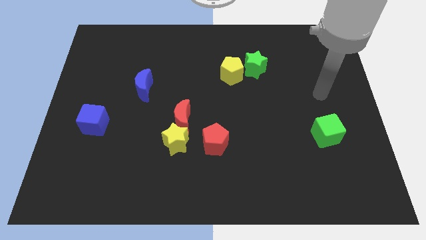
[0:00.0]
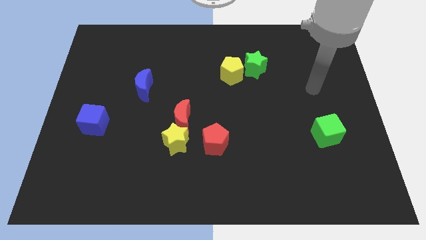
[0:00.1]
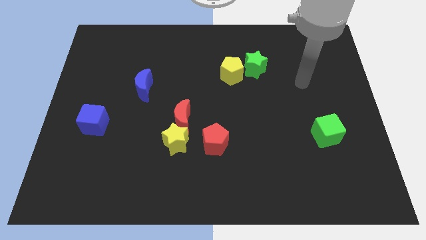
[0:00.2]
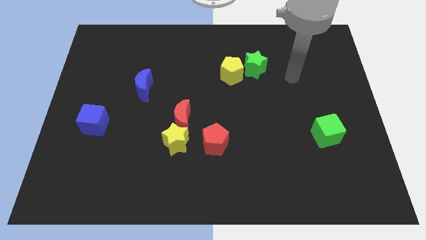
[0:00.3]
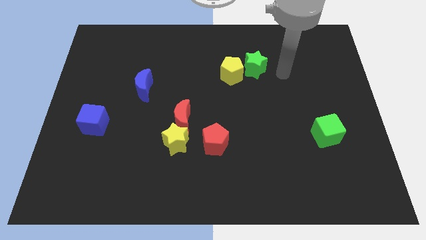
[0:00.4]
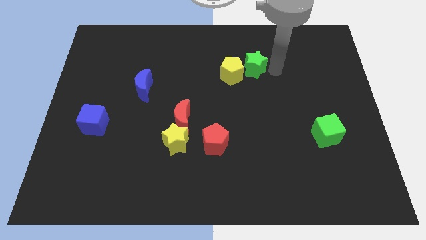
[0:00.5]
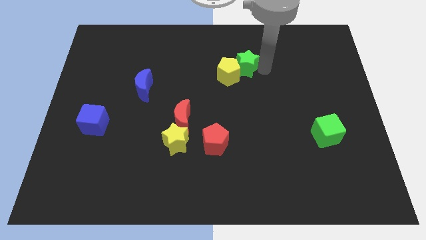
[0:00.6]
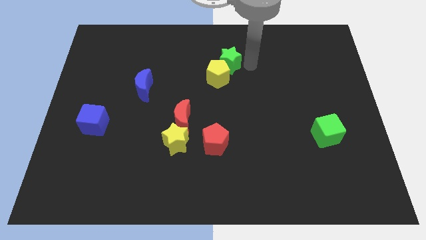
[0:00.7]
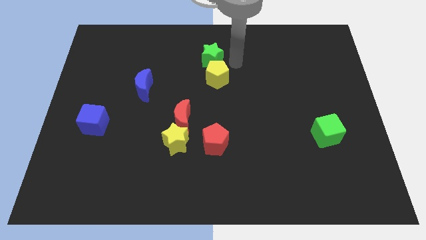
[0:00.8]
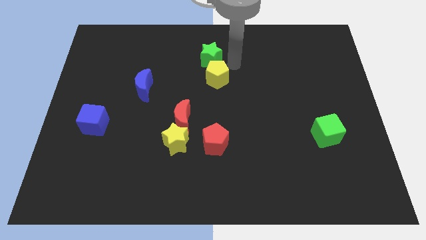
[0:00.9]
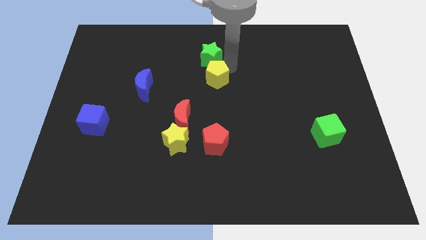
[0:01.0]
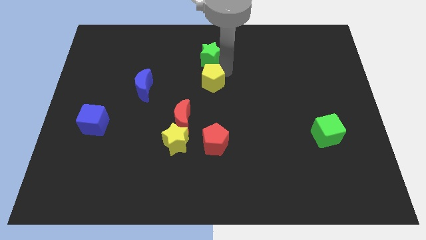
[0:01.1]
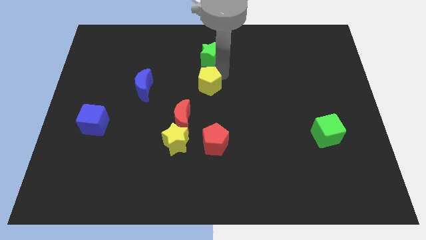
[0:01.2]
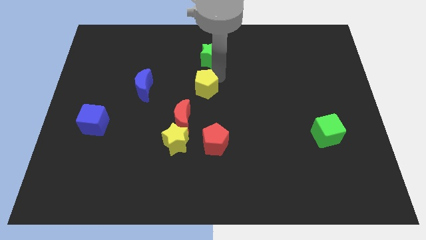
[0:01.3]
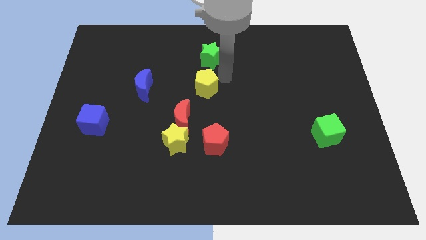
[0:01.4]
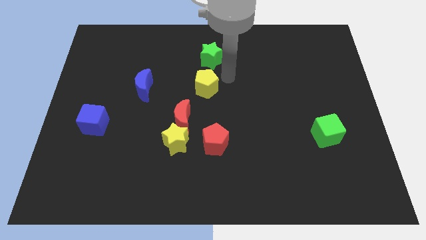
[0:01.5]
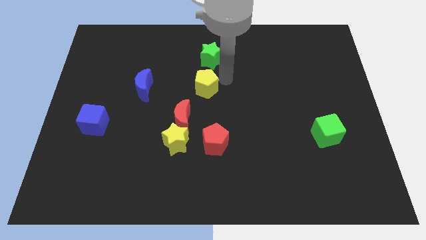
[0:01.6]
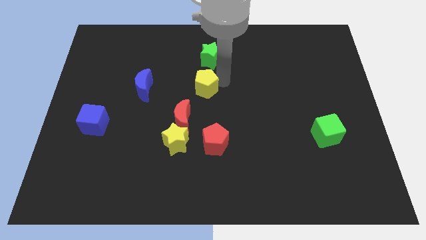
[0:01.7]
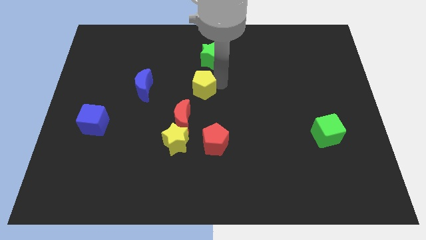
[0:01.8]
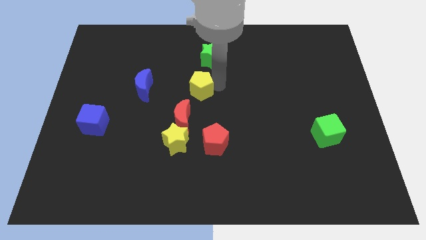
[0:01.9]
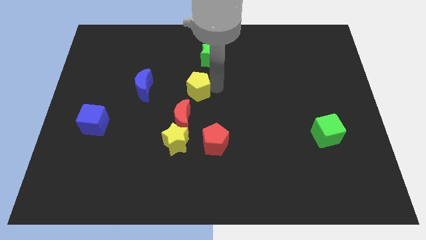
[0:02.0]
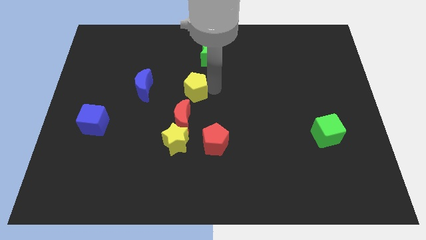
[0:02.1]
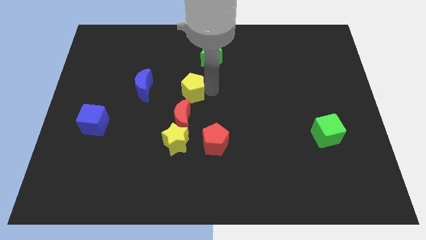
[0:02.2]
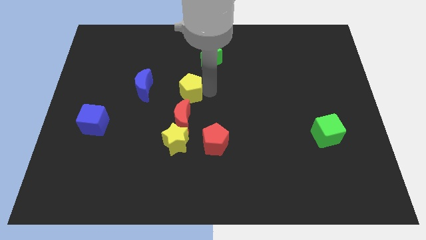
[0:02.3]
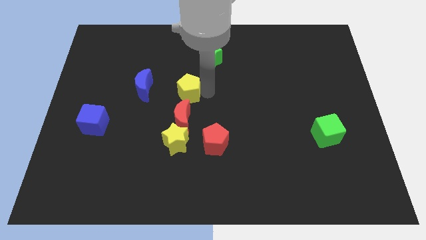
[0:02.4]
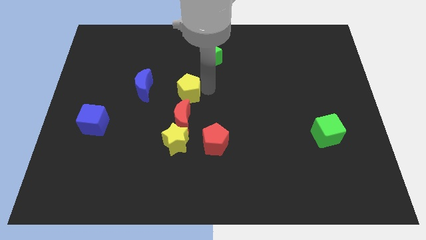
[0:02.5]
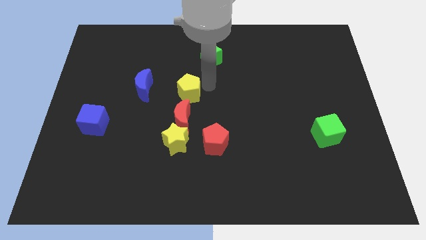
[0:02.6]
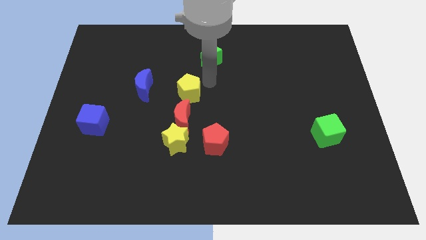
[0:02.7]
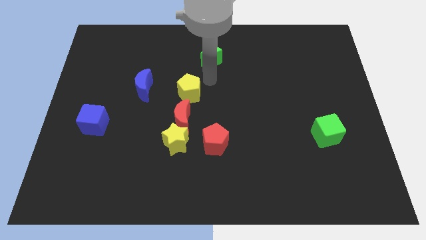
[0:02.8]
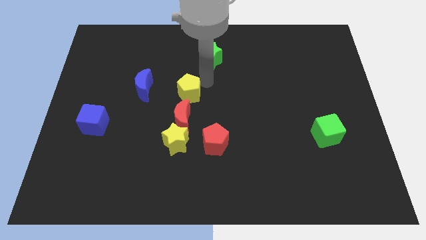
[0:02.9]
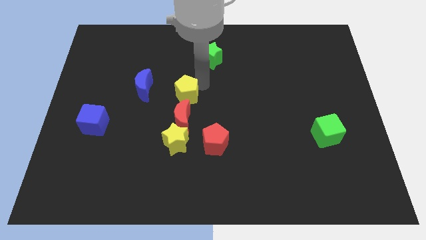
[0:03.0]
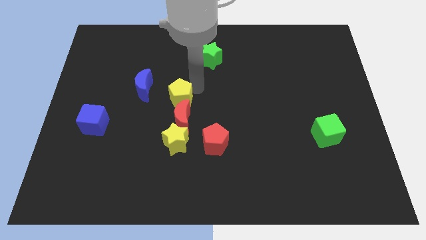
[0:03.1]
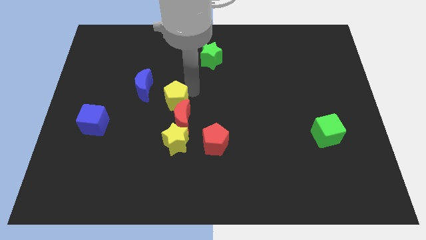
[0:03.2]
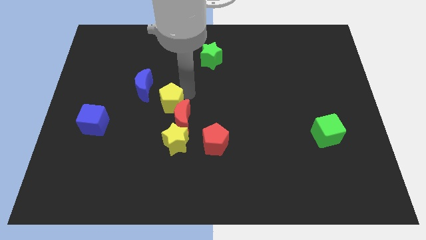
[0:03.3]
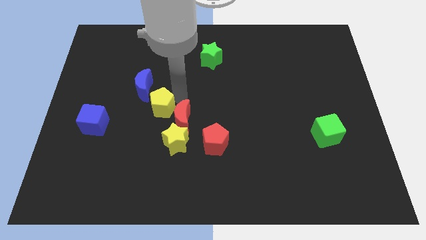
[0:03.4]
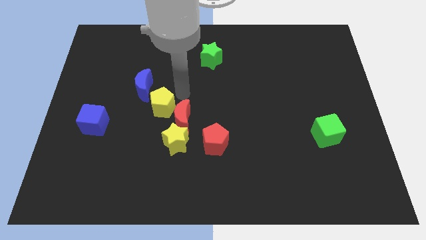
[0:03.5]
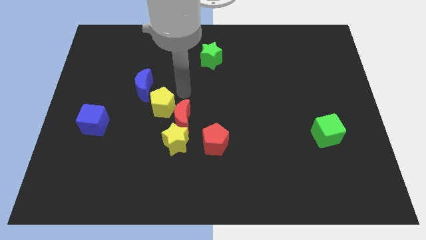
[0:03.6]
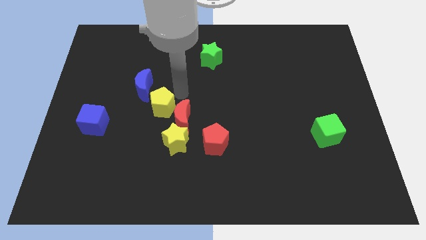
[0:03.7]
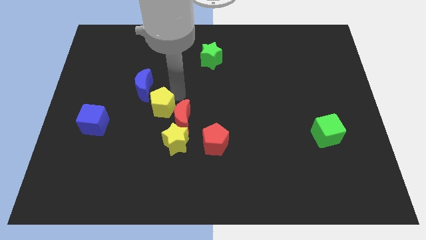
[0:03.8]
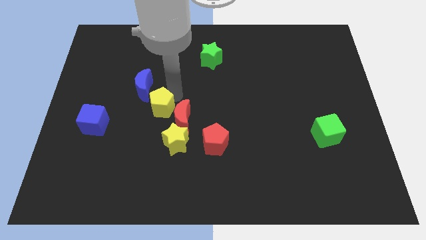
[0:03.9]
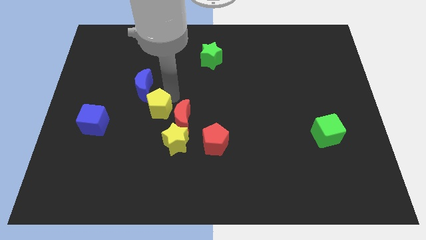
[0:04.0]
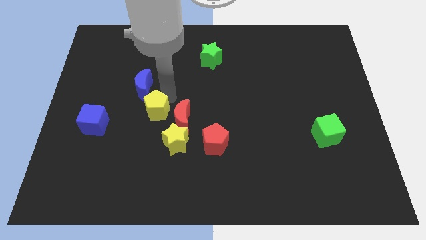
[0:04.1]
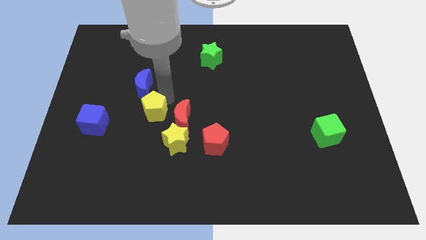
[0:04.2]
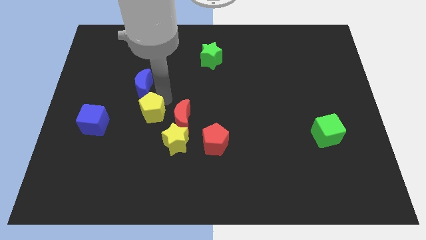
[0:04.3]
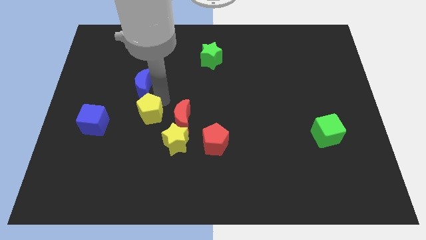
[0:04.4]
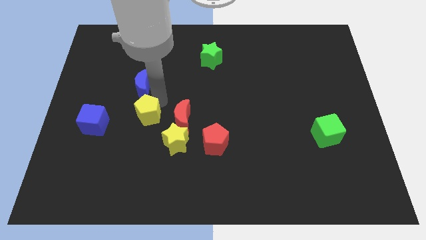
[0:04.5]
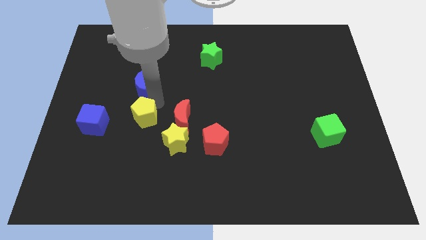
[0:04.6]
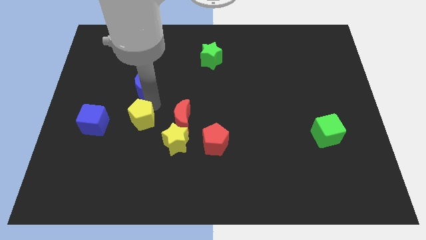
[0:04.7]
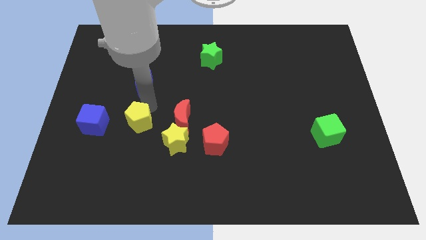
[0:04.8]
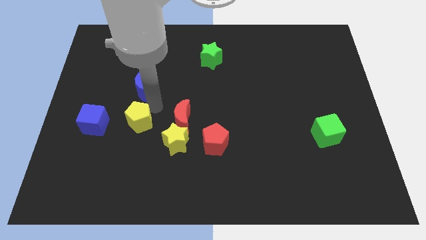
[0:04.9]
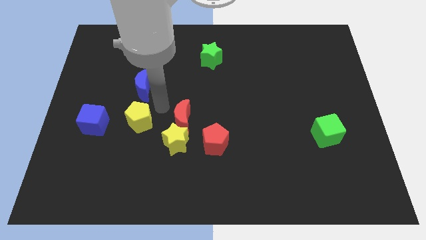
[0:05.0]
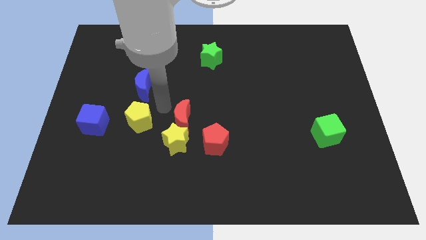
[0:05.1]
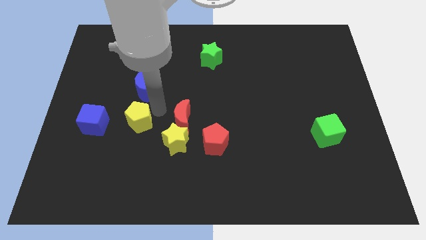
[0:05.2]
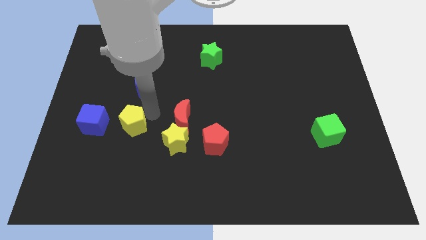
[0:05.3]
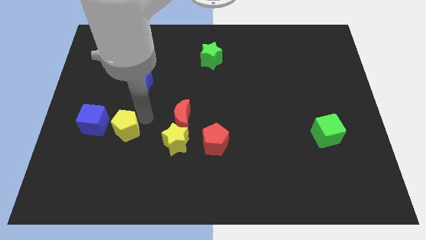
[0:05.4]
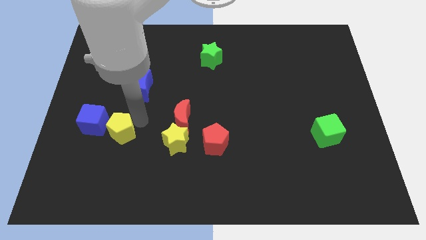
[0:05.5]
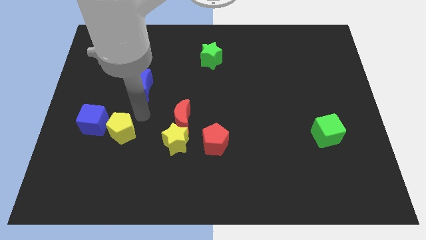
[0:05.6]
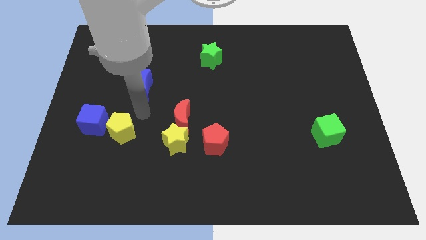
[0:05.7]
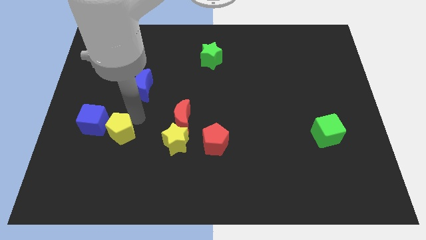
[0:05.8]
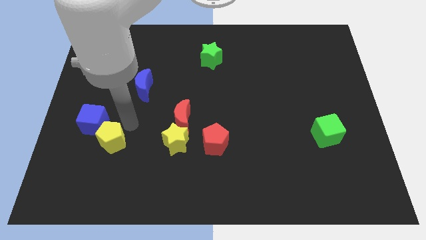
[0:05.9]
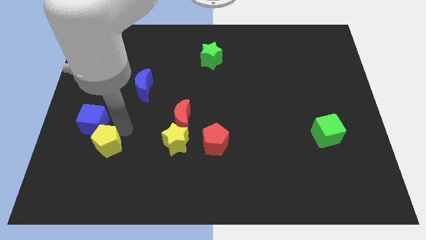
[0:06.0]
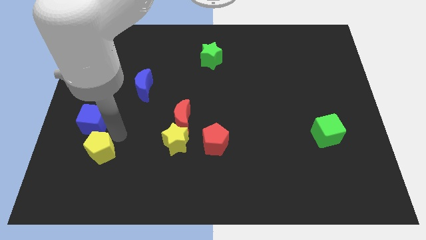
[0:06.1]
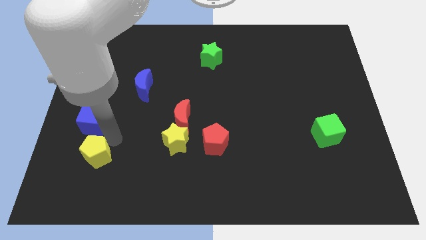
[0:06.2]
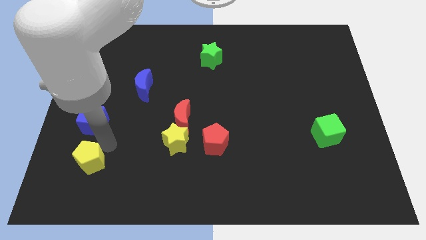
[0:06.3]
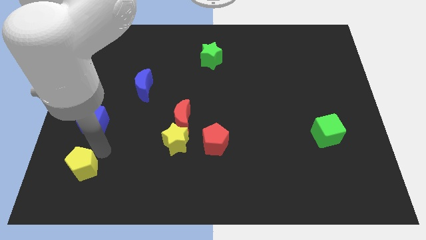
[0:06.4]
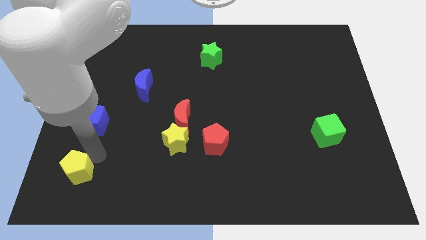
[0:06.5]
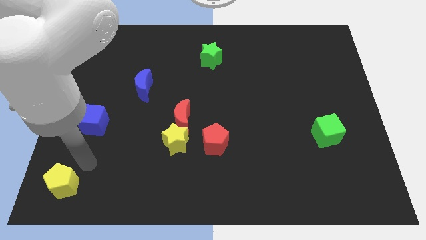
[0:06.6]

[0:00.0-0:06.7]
move the yellow pentagon to the bottom left corner

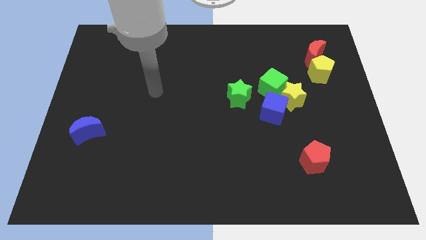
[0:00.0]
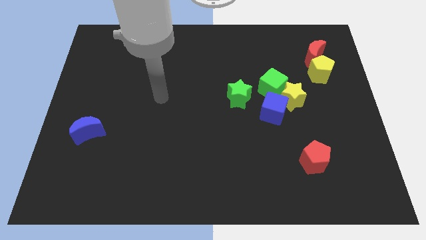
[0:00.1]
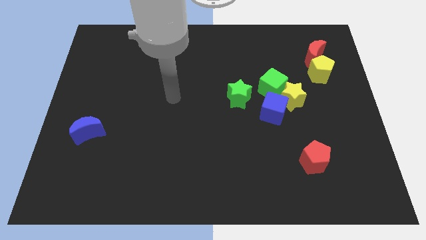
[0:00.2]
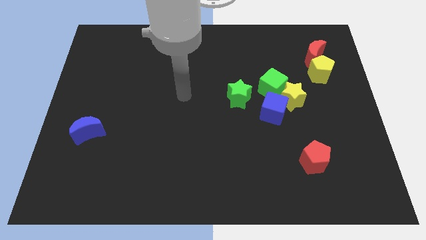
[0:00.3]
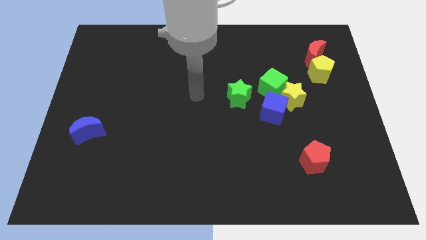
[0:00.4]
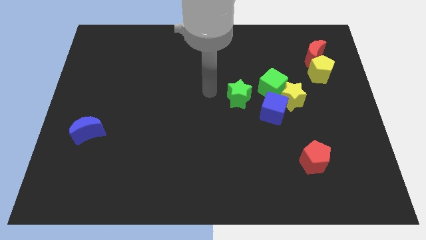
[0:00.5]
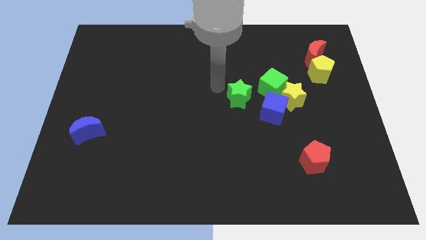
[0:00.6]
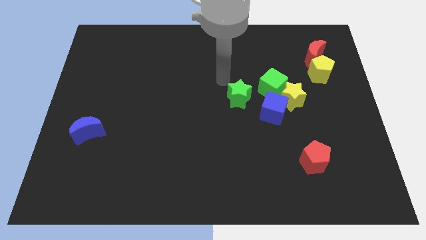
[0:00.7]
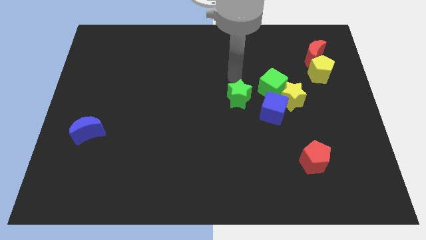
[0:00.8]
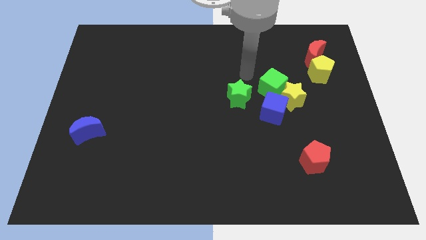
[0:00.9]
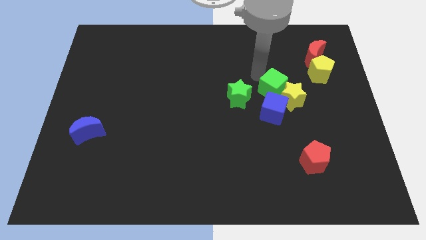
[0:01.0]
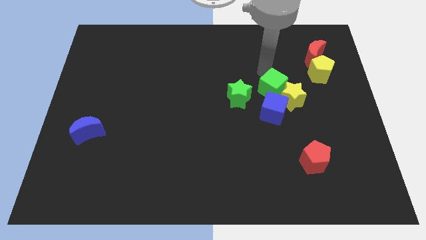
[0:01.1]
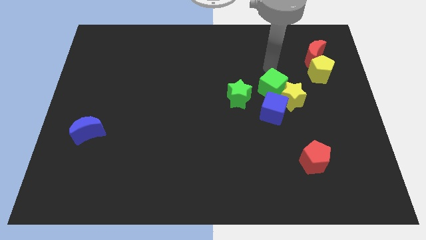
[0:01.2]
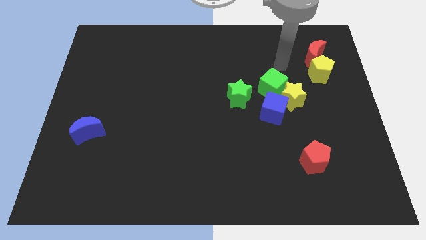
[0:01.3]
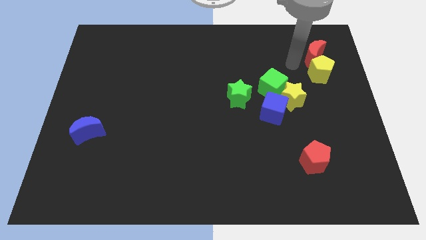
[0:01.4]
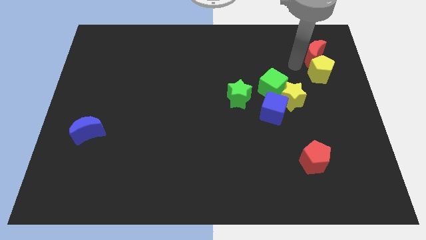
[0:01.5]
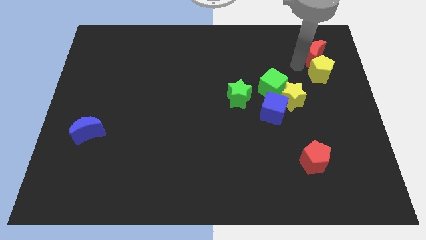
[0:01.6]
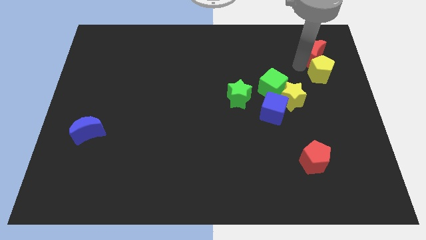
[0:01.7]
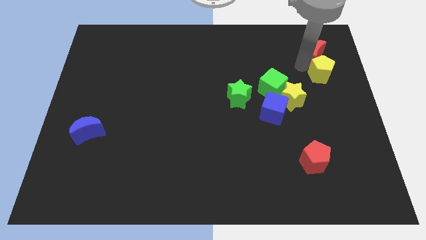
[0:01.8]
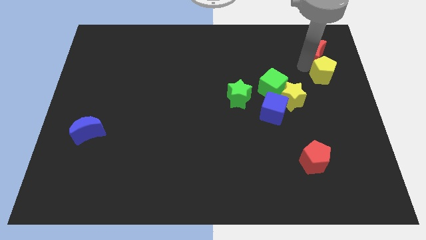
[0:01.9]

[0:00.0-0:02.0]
slide the yellow pentagon to the right side of the board
